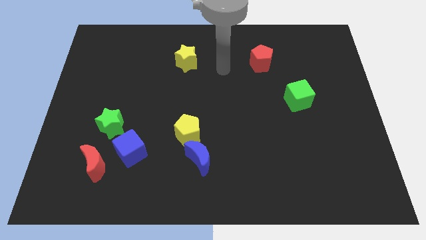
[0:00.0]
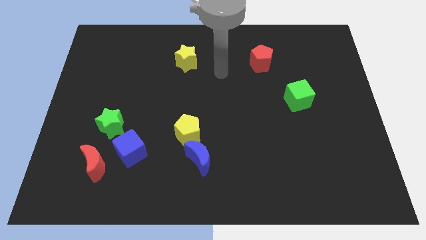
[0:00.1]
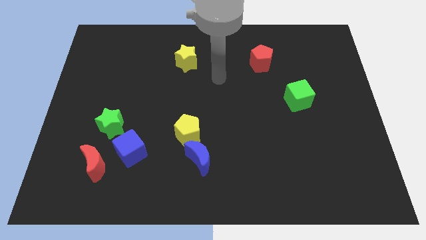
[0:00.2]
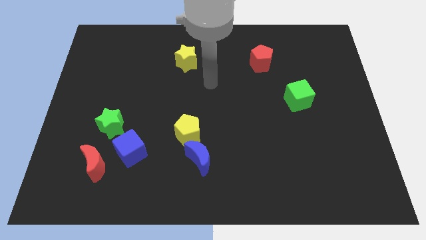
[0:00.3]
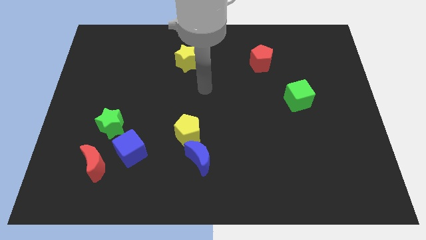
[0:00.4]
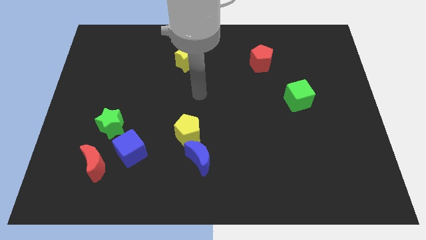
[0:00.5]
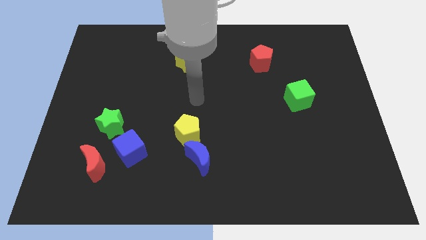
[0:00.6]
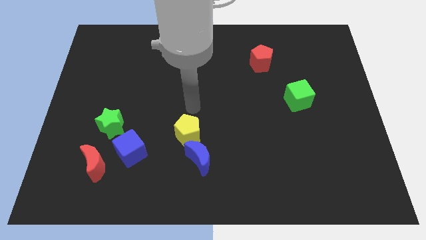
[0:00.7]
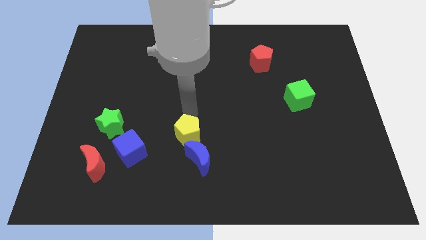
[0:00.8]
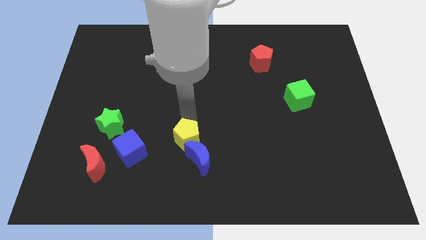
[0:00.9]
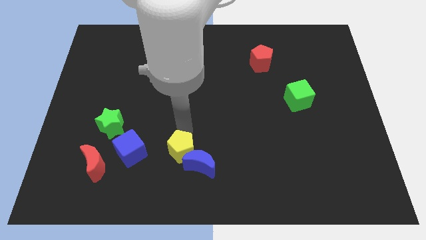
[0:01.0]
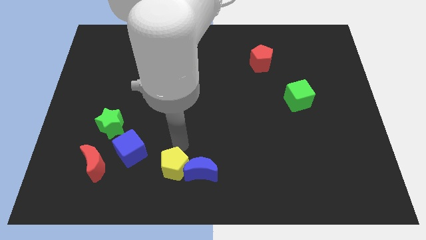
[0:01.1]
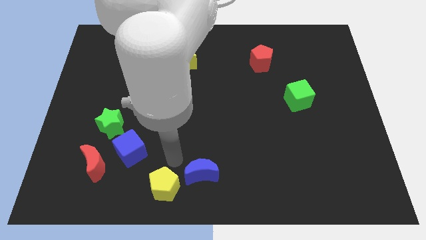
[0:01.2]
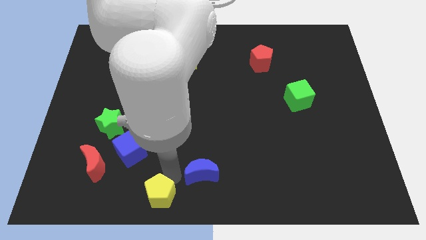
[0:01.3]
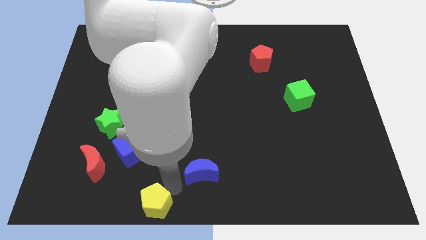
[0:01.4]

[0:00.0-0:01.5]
separate the blue moon from the yellow pentagon

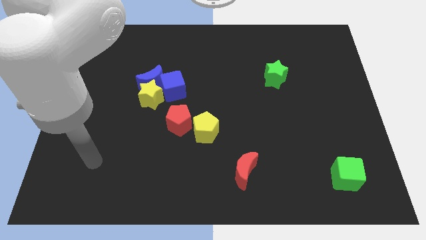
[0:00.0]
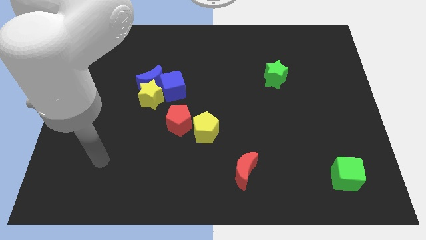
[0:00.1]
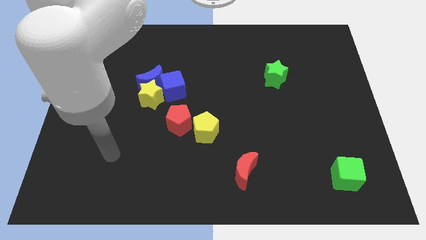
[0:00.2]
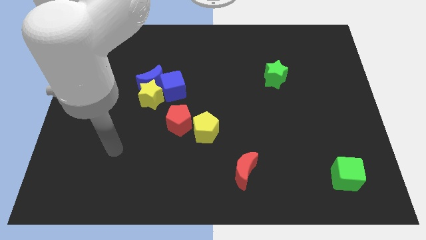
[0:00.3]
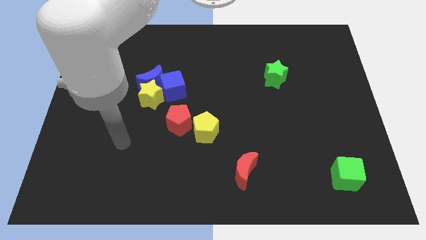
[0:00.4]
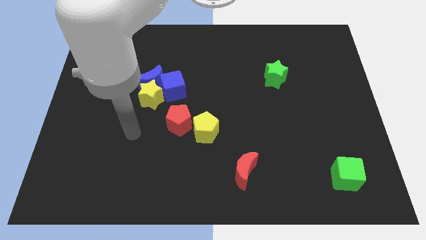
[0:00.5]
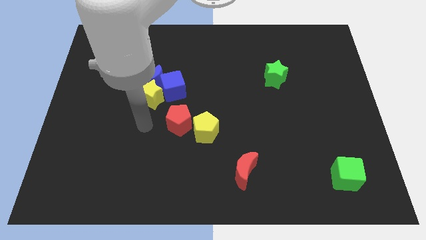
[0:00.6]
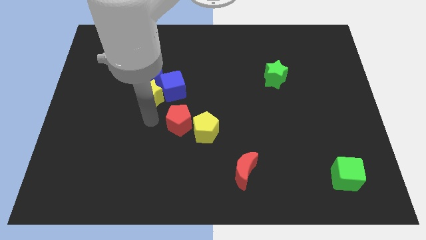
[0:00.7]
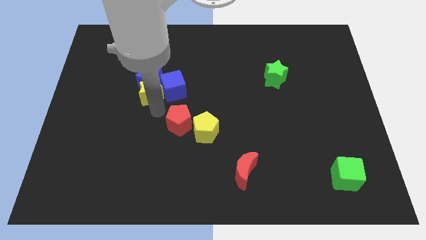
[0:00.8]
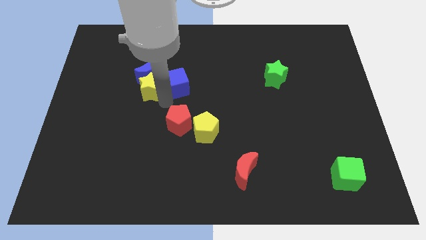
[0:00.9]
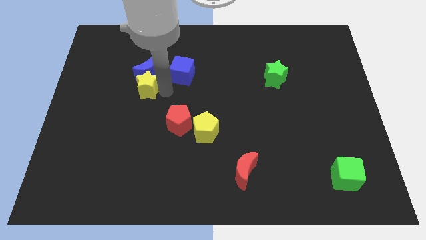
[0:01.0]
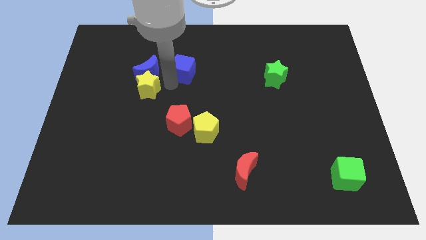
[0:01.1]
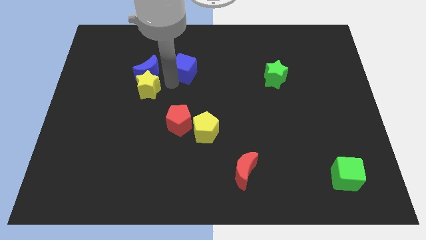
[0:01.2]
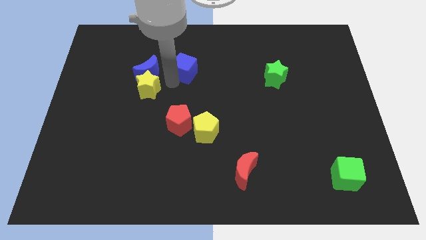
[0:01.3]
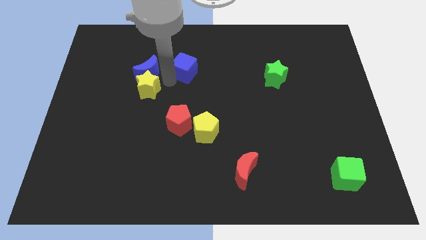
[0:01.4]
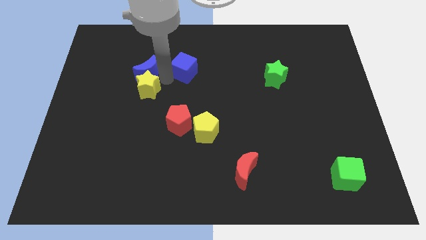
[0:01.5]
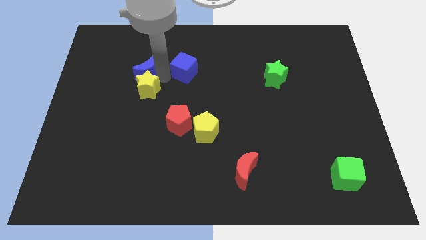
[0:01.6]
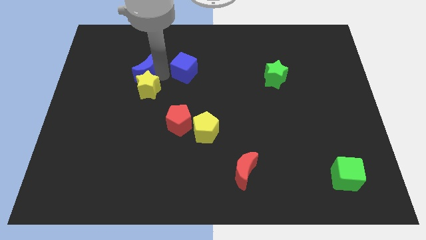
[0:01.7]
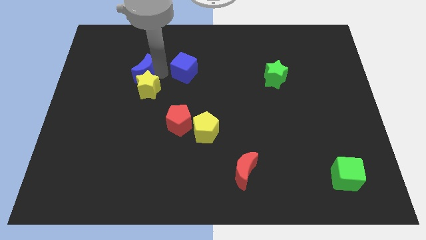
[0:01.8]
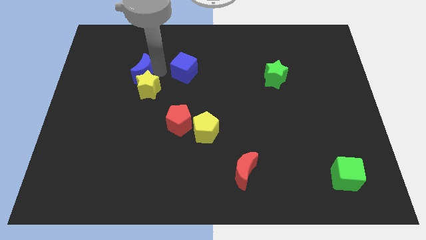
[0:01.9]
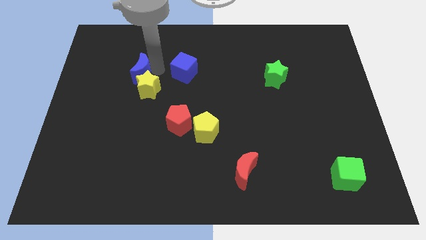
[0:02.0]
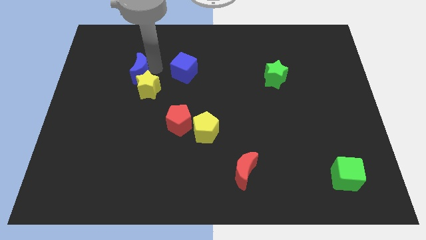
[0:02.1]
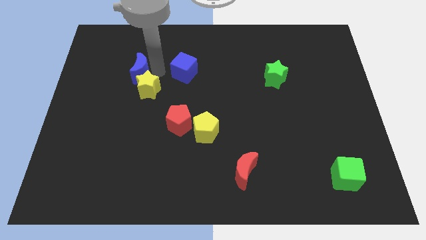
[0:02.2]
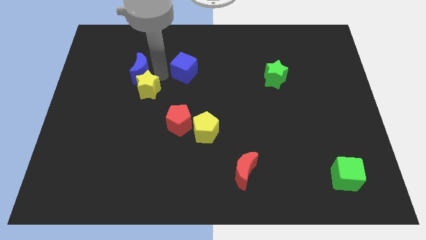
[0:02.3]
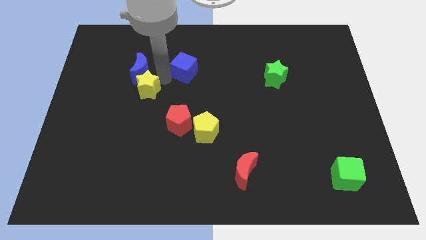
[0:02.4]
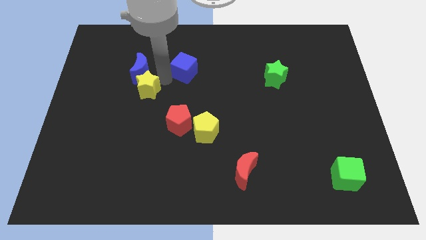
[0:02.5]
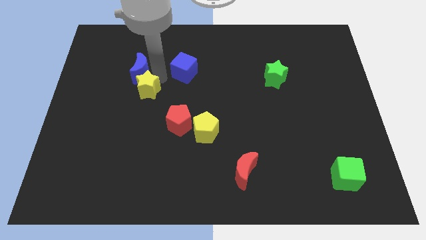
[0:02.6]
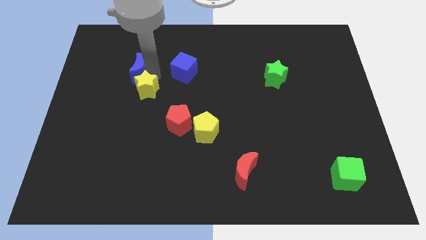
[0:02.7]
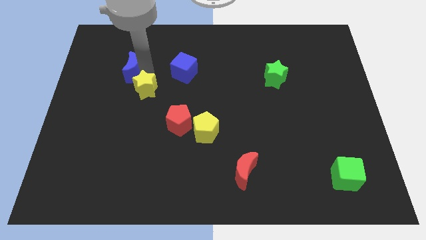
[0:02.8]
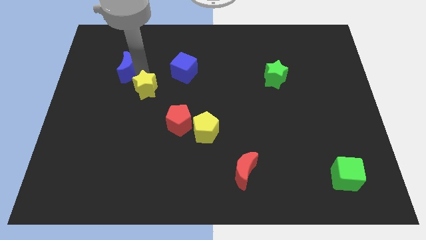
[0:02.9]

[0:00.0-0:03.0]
separate the blue moon from the yellow star and blue cube

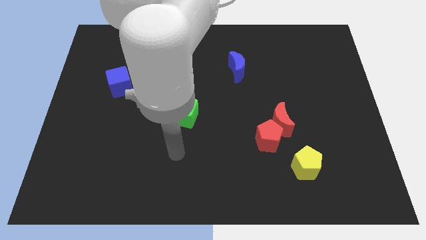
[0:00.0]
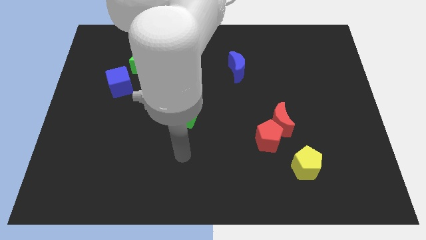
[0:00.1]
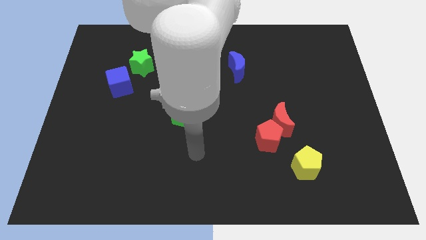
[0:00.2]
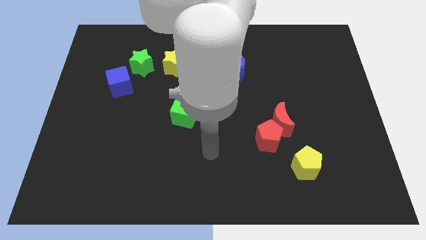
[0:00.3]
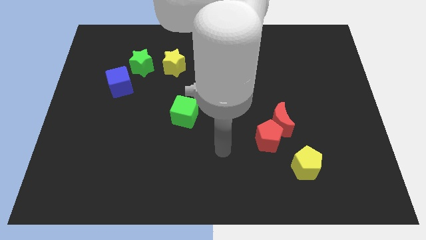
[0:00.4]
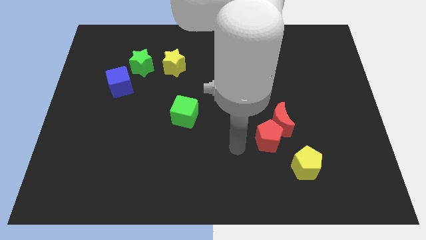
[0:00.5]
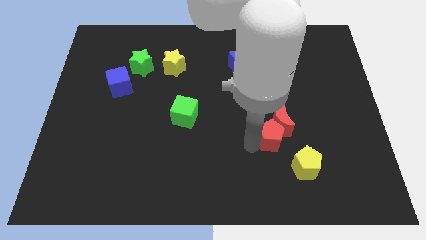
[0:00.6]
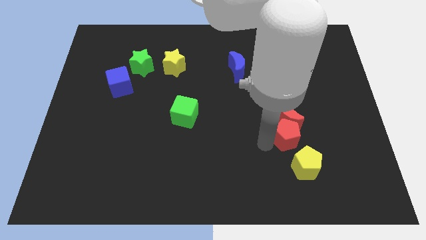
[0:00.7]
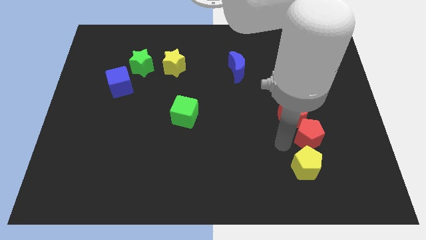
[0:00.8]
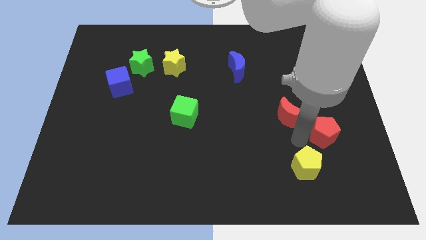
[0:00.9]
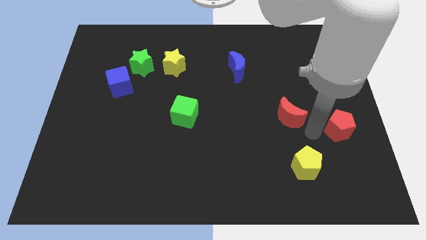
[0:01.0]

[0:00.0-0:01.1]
pull the red moon apart from the red pentagon

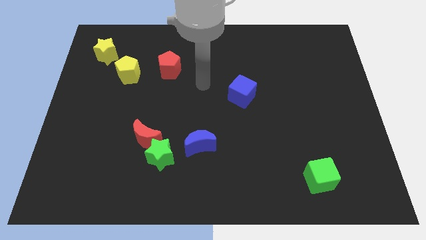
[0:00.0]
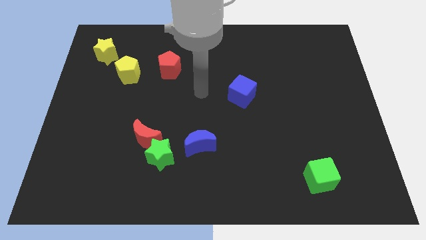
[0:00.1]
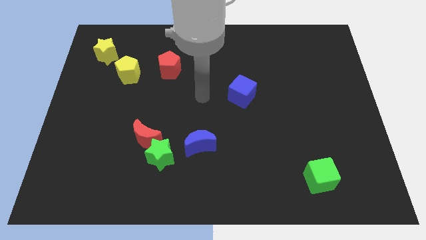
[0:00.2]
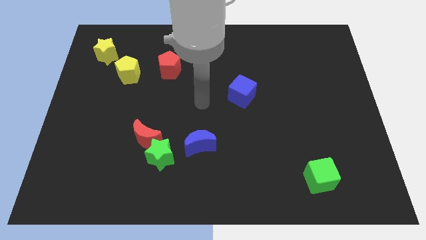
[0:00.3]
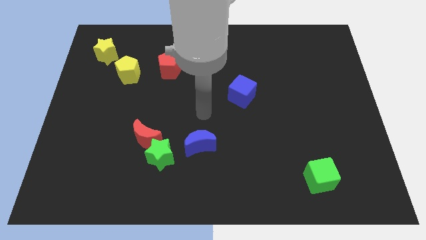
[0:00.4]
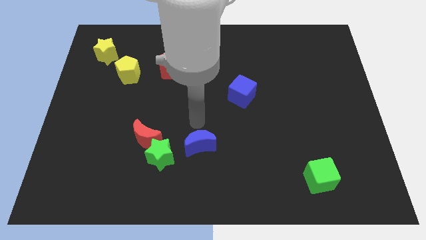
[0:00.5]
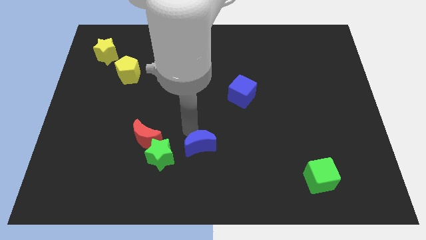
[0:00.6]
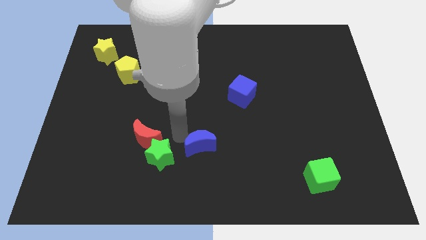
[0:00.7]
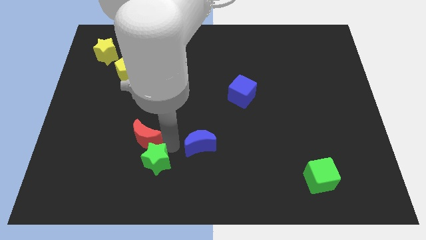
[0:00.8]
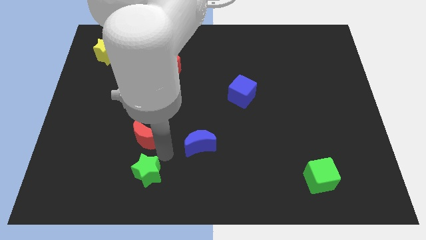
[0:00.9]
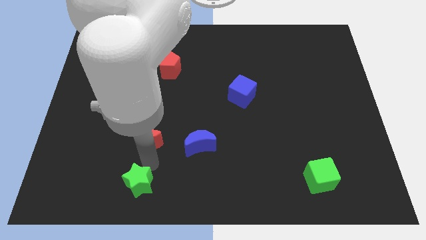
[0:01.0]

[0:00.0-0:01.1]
separate the red moon from the green star

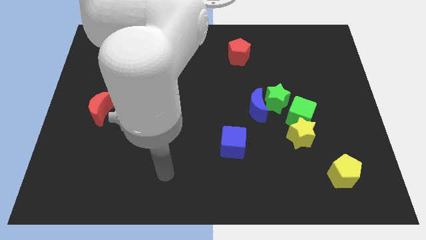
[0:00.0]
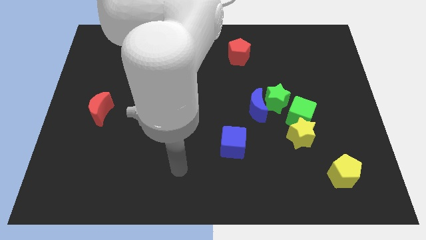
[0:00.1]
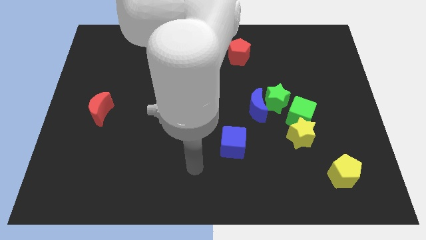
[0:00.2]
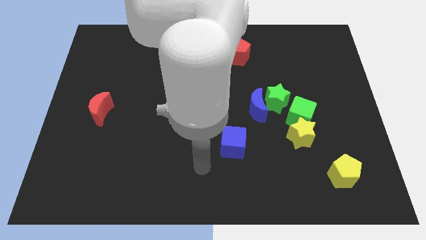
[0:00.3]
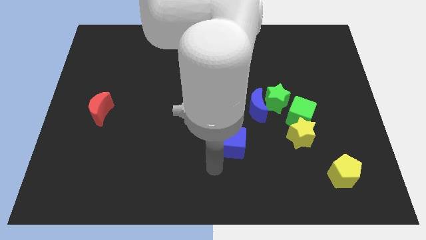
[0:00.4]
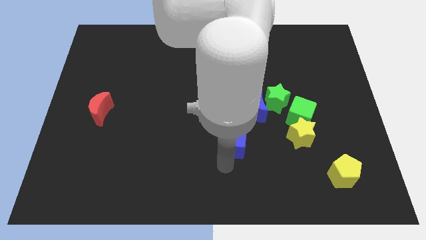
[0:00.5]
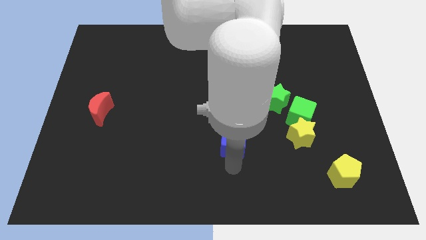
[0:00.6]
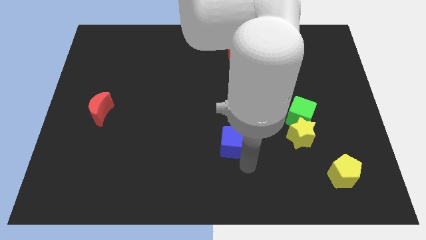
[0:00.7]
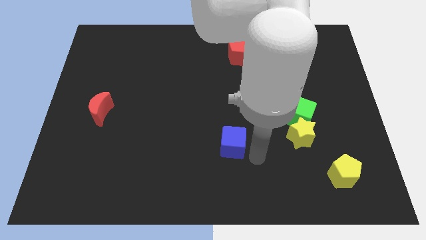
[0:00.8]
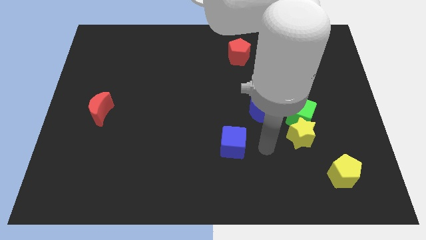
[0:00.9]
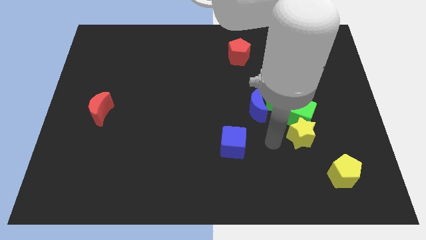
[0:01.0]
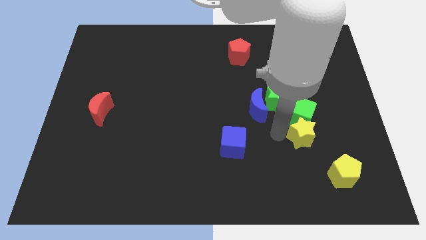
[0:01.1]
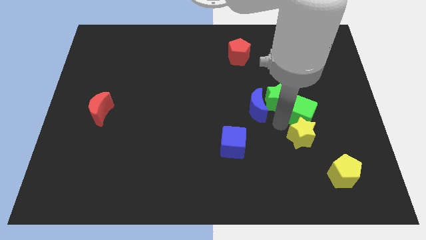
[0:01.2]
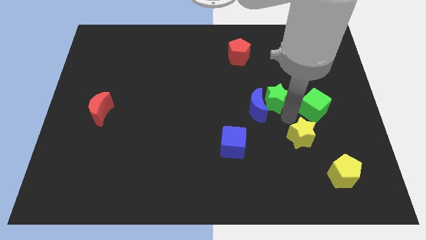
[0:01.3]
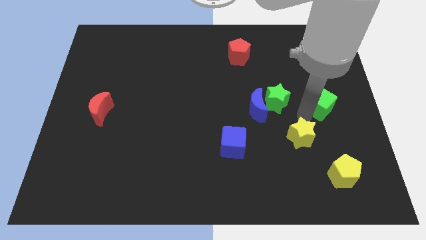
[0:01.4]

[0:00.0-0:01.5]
separate the yellow star from the green cube

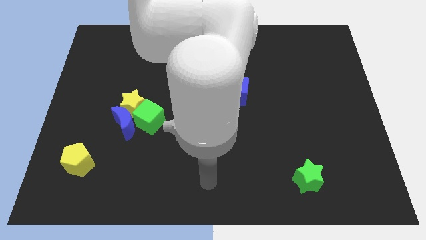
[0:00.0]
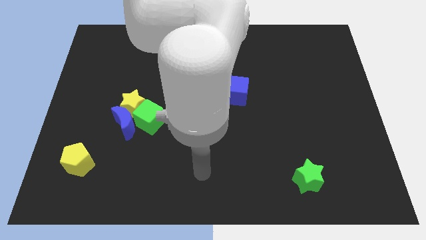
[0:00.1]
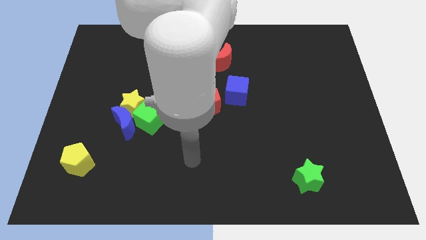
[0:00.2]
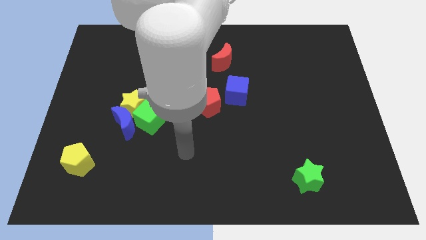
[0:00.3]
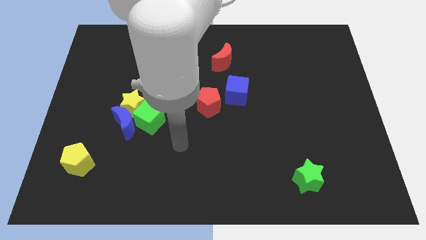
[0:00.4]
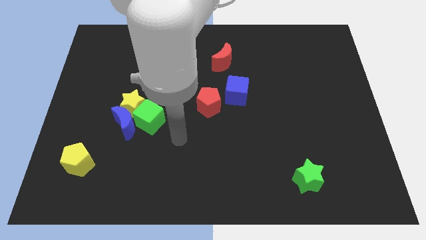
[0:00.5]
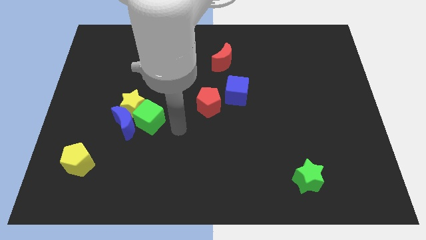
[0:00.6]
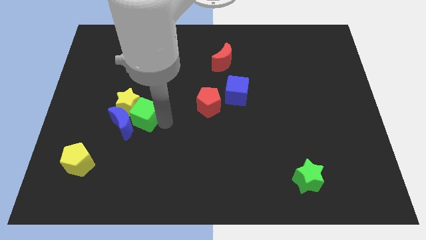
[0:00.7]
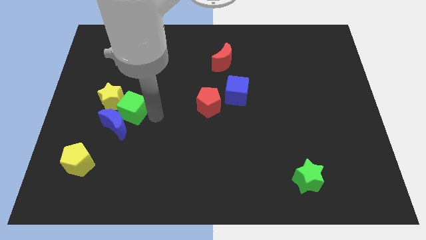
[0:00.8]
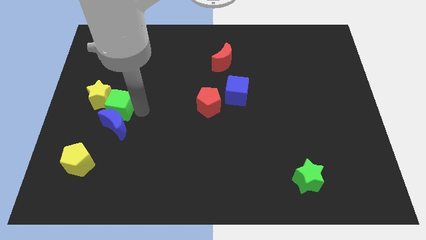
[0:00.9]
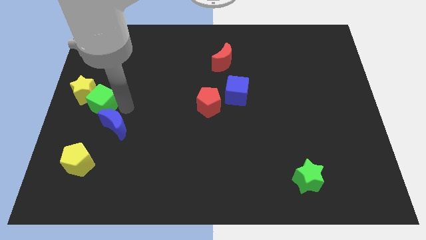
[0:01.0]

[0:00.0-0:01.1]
separate the blue moon from the yellow star and green cube
